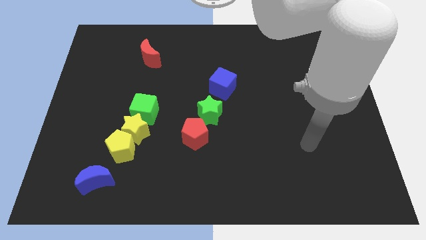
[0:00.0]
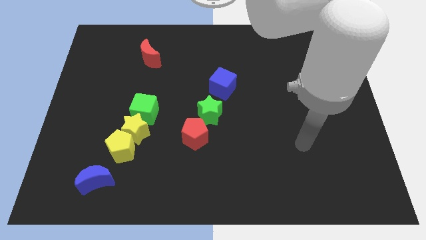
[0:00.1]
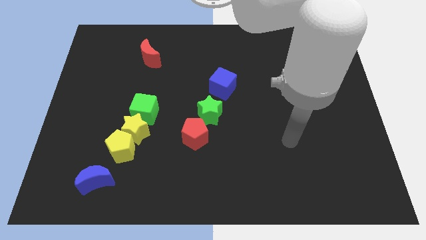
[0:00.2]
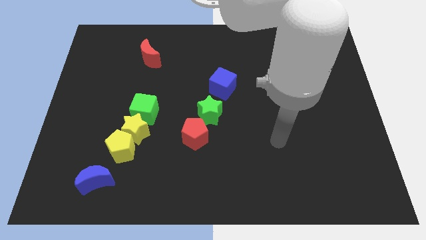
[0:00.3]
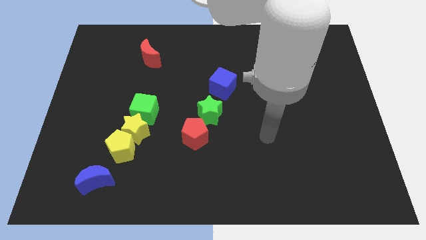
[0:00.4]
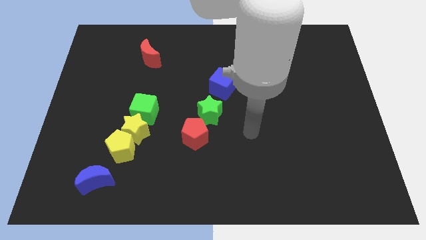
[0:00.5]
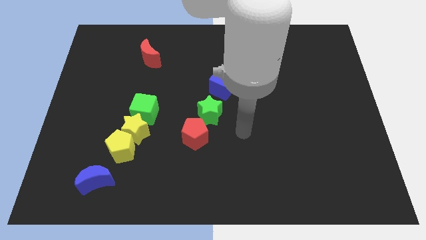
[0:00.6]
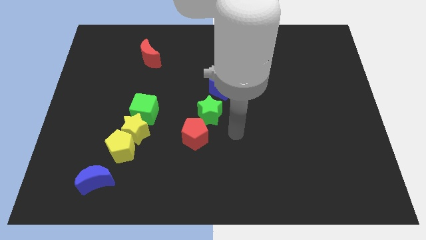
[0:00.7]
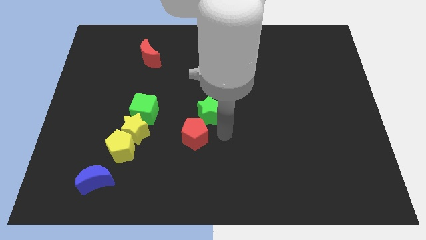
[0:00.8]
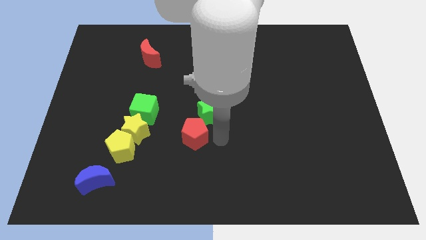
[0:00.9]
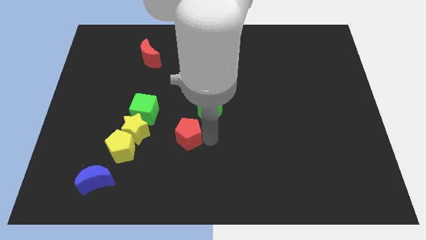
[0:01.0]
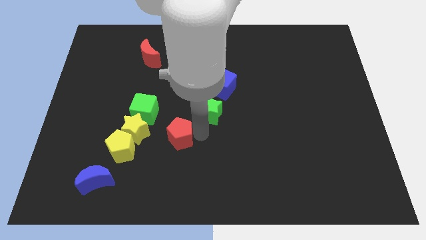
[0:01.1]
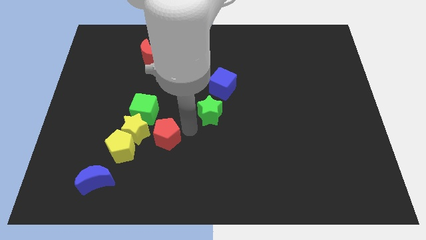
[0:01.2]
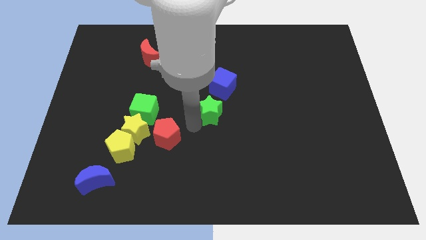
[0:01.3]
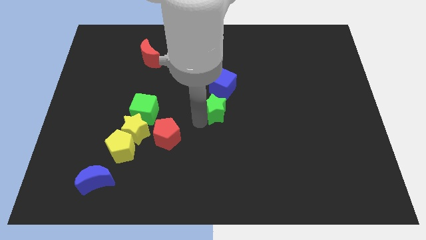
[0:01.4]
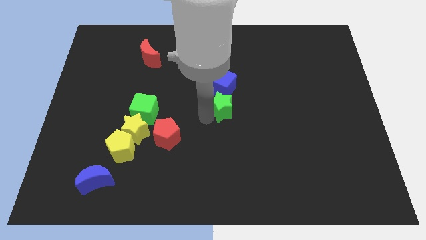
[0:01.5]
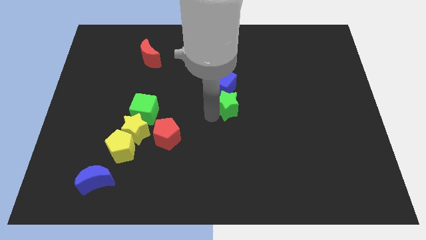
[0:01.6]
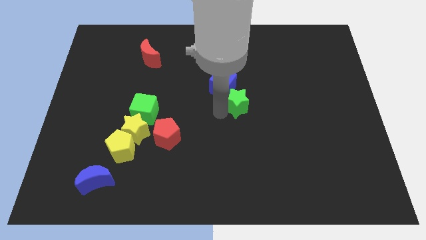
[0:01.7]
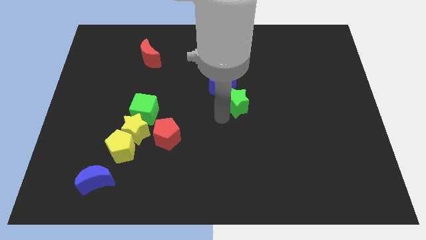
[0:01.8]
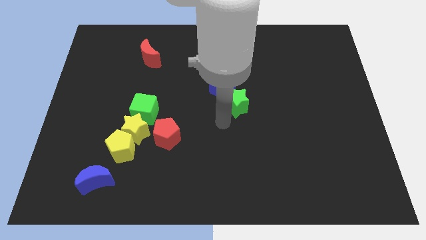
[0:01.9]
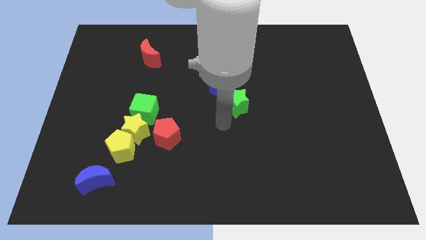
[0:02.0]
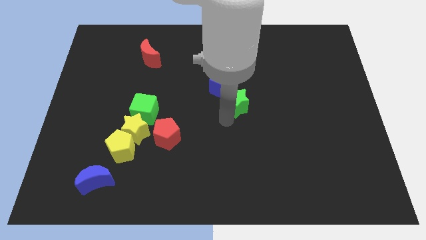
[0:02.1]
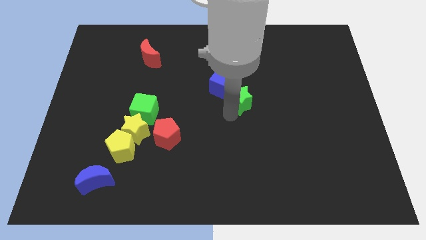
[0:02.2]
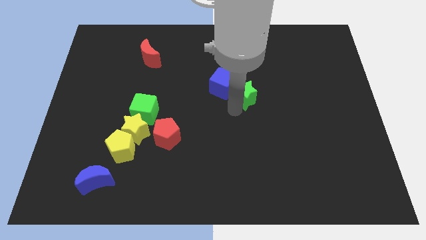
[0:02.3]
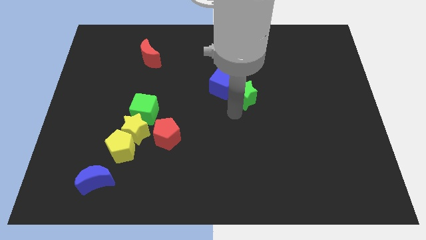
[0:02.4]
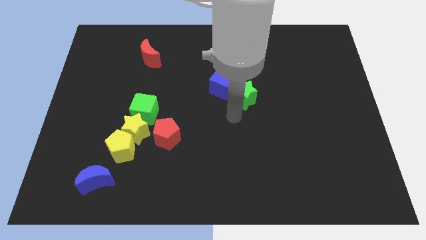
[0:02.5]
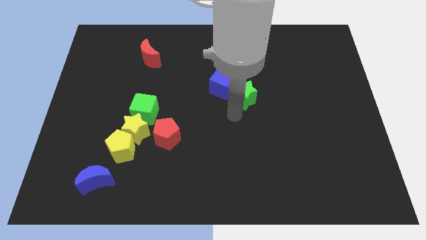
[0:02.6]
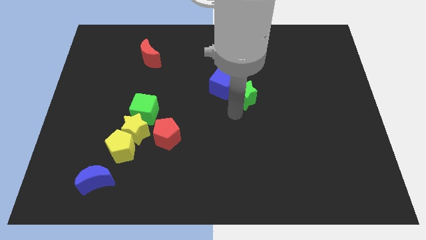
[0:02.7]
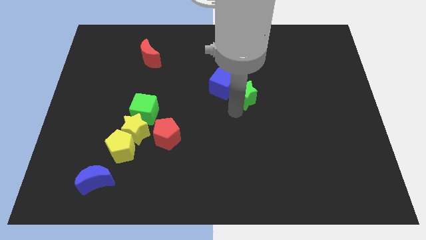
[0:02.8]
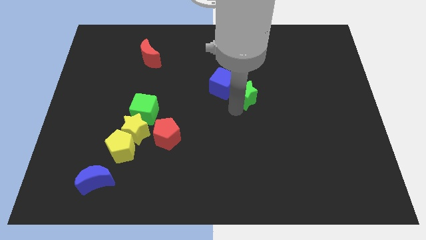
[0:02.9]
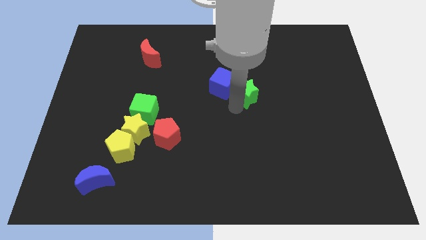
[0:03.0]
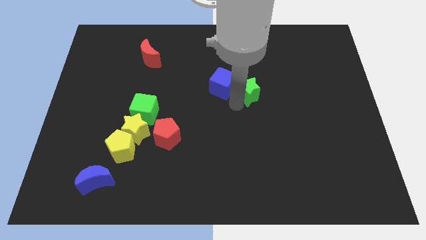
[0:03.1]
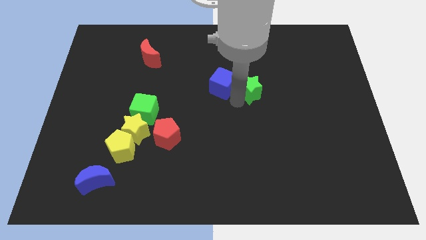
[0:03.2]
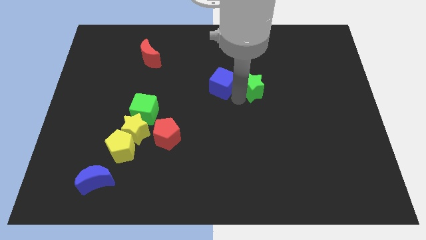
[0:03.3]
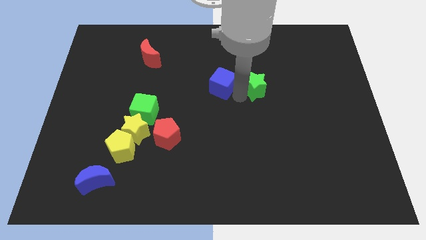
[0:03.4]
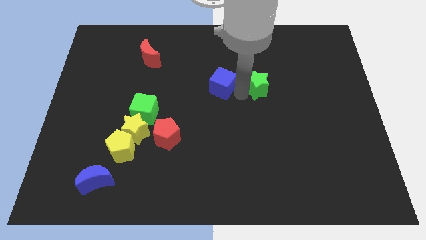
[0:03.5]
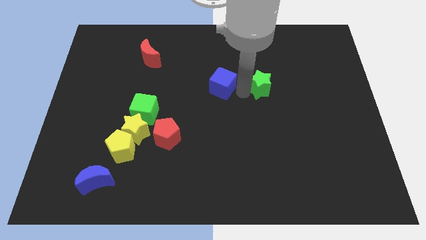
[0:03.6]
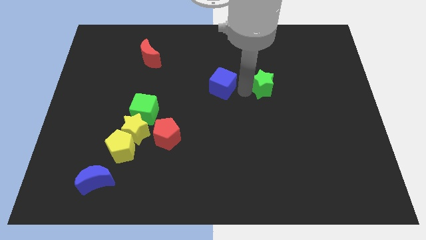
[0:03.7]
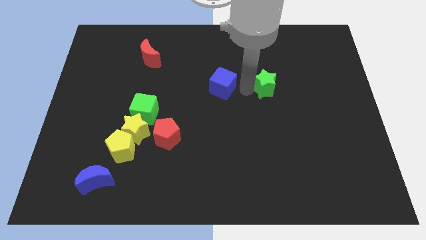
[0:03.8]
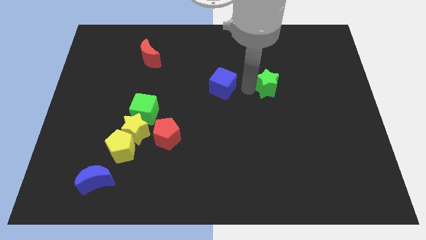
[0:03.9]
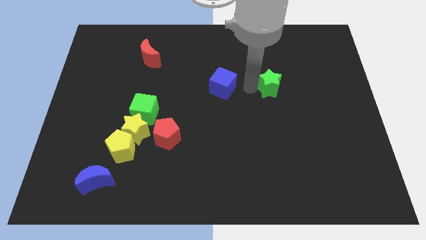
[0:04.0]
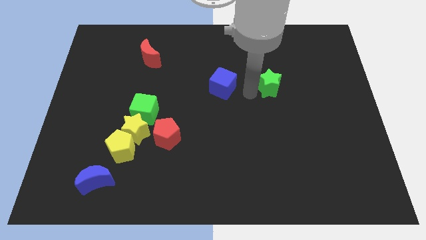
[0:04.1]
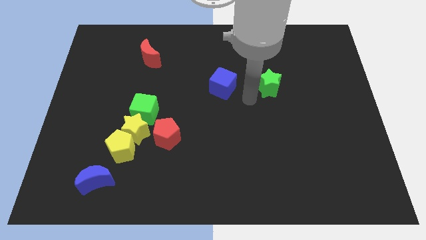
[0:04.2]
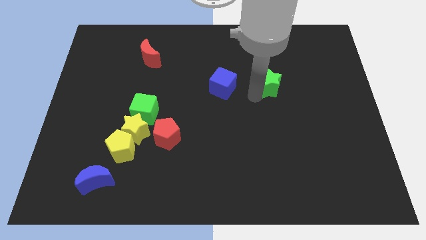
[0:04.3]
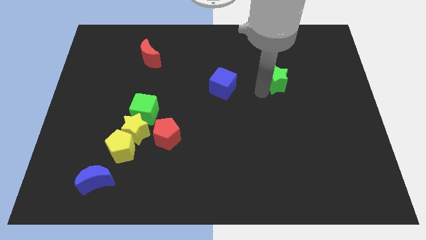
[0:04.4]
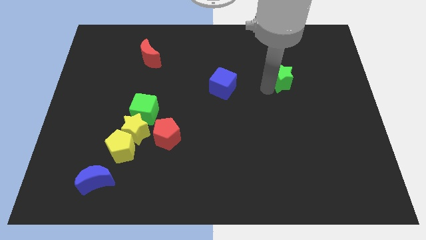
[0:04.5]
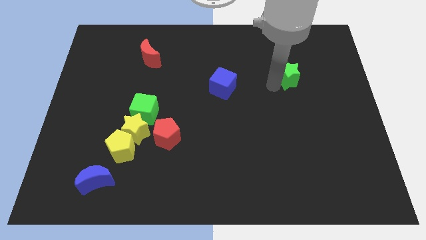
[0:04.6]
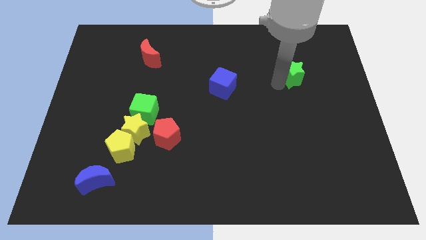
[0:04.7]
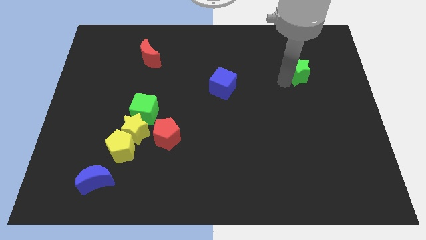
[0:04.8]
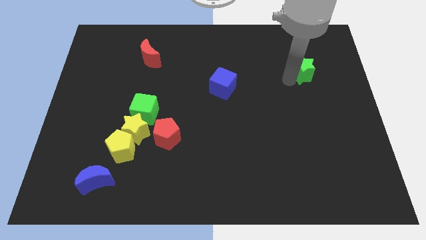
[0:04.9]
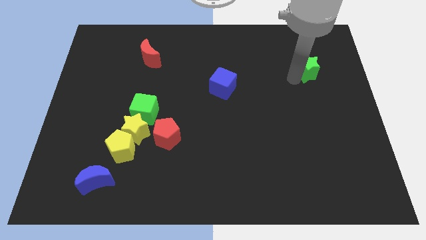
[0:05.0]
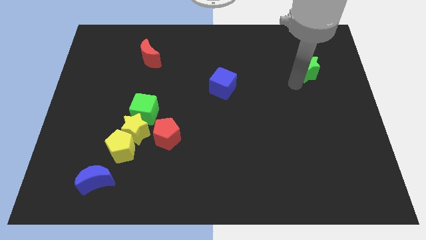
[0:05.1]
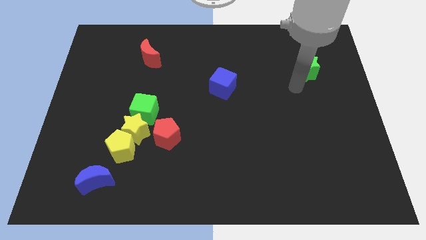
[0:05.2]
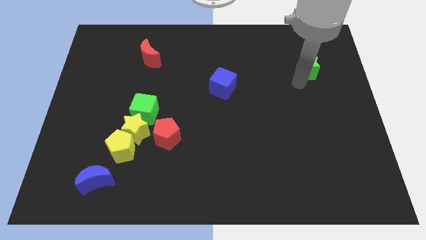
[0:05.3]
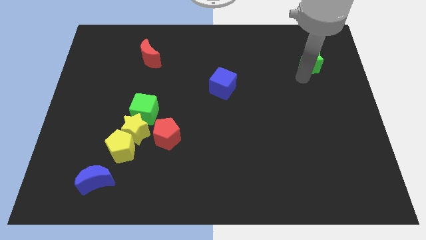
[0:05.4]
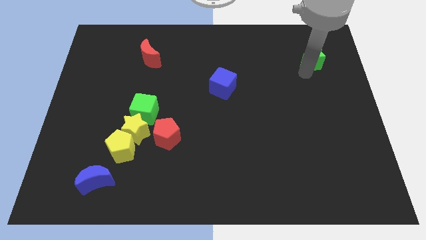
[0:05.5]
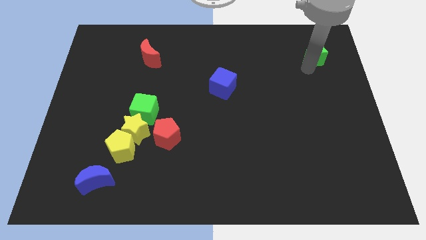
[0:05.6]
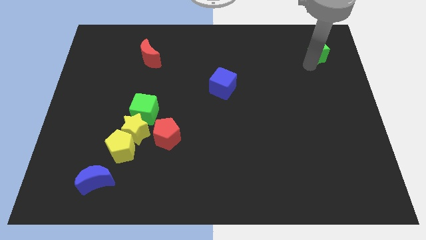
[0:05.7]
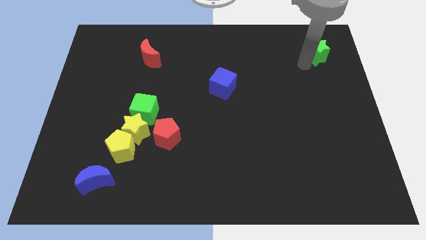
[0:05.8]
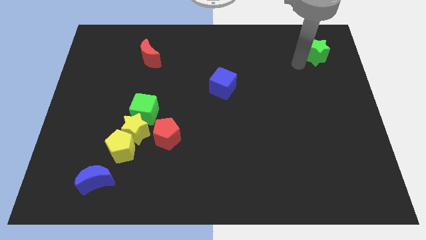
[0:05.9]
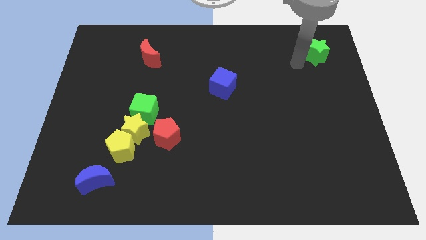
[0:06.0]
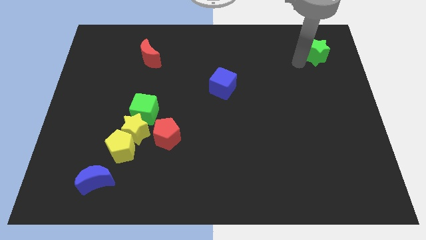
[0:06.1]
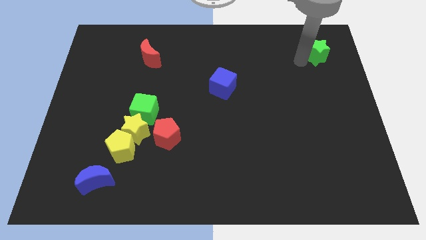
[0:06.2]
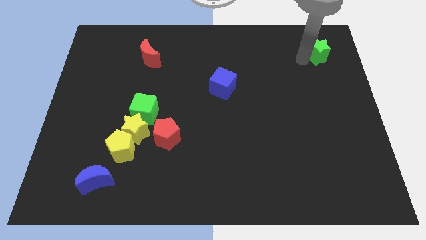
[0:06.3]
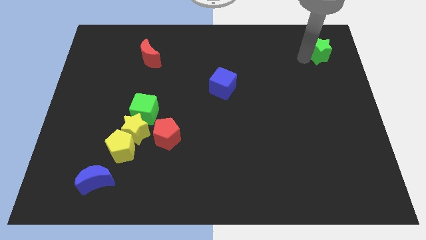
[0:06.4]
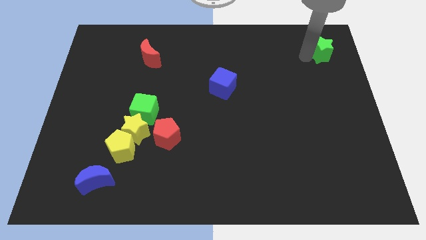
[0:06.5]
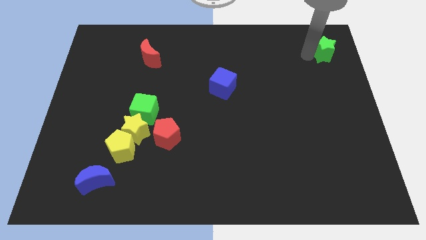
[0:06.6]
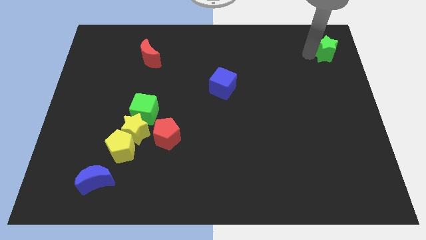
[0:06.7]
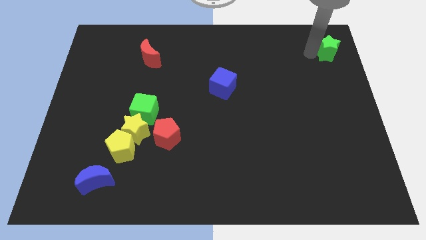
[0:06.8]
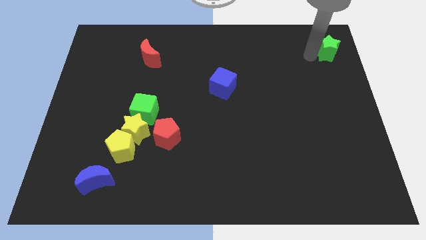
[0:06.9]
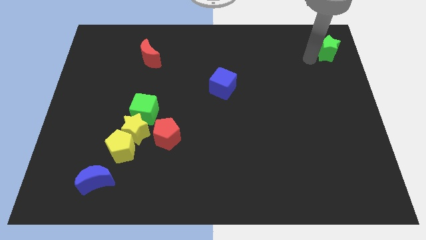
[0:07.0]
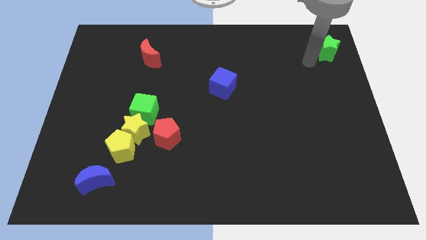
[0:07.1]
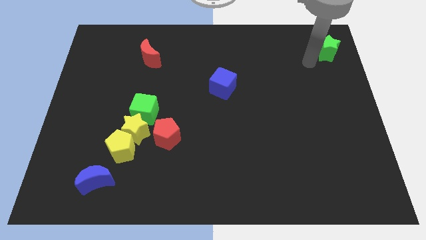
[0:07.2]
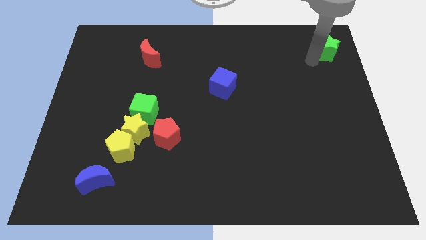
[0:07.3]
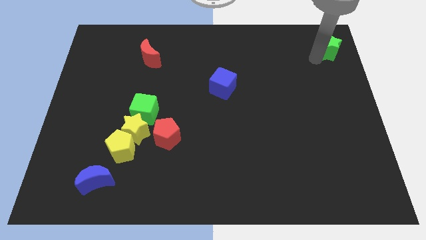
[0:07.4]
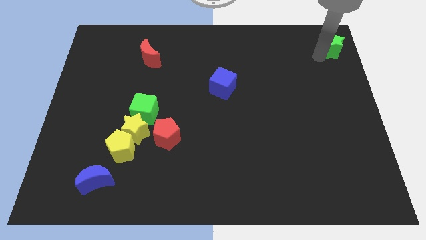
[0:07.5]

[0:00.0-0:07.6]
put the green star to the top right corner
